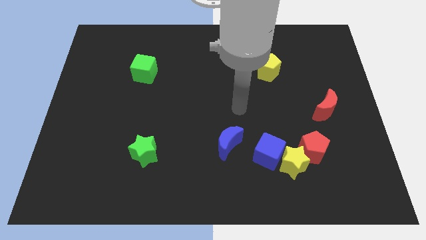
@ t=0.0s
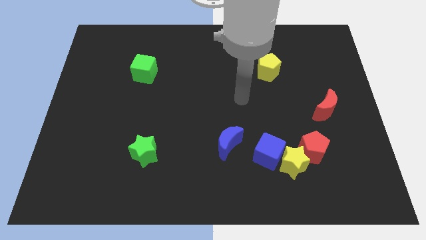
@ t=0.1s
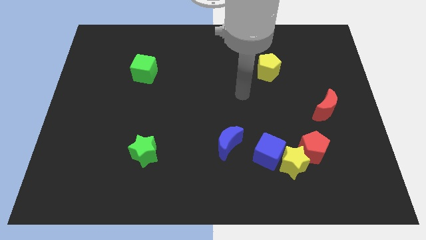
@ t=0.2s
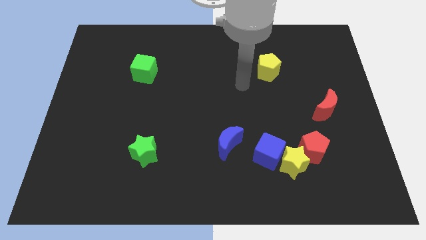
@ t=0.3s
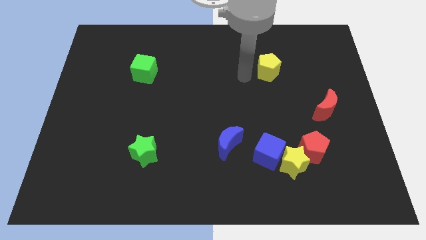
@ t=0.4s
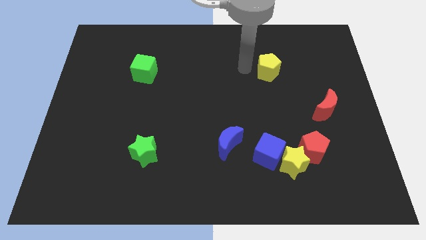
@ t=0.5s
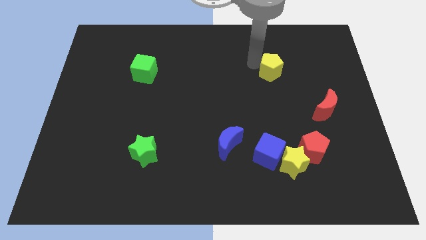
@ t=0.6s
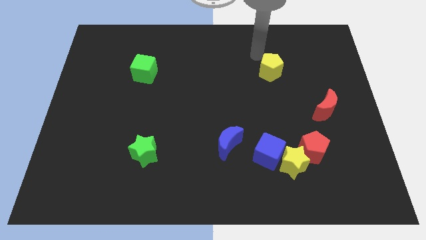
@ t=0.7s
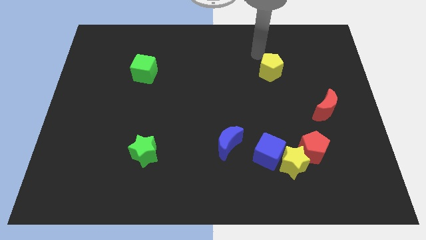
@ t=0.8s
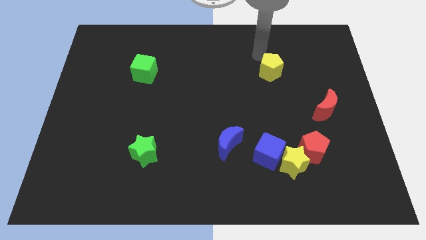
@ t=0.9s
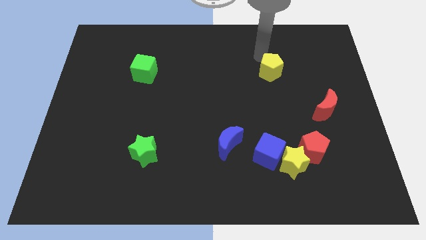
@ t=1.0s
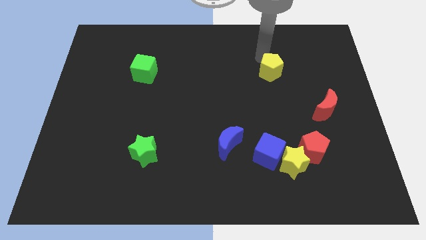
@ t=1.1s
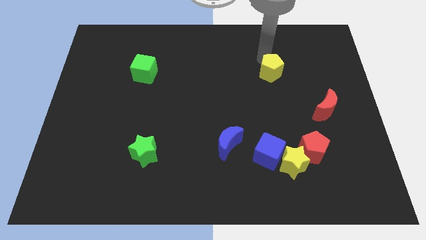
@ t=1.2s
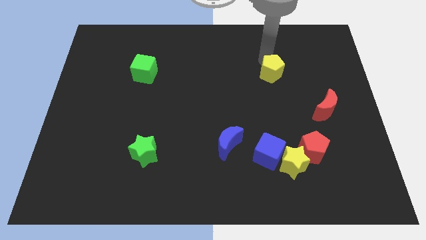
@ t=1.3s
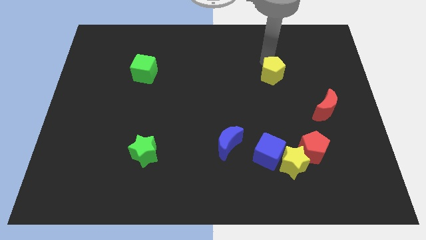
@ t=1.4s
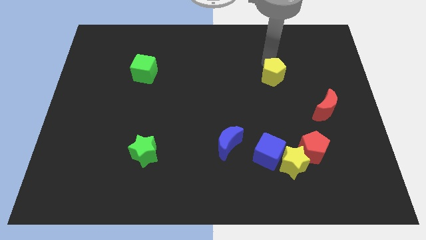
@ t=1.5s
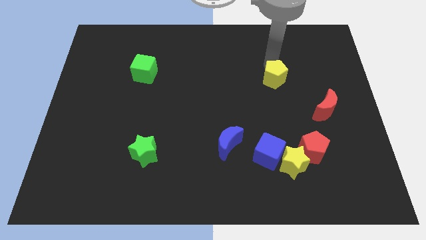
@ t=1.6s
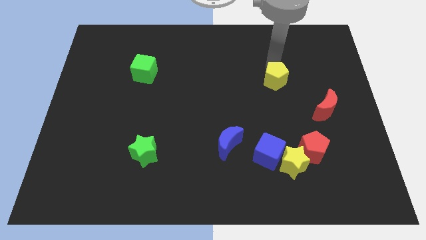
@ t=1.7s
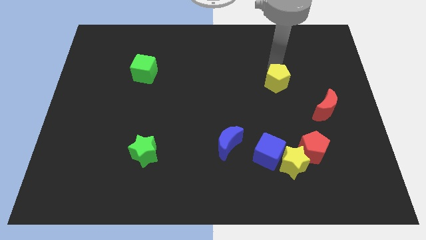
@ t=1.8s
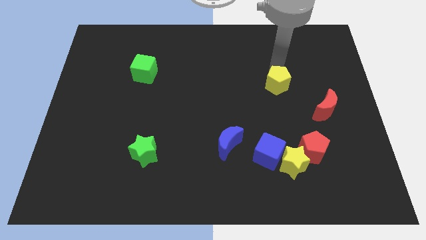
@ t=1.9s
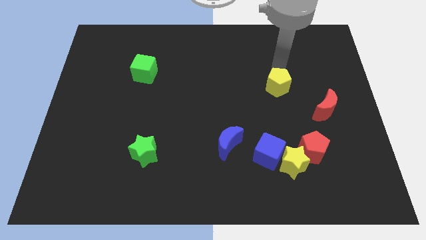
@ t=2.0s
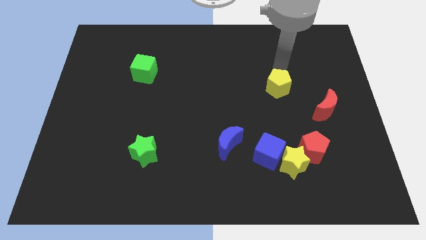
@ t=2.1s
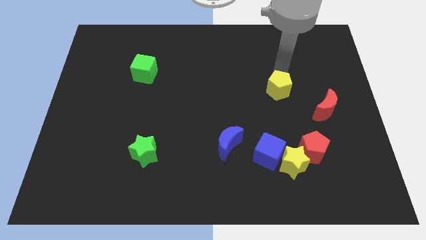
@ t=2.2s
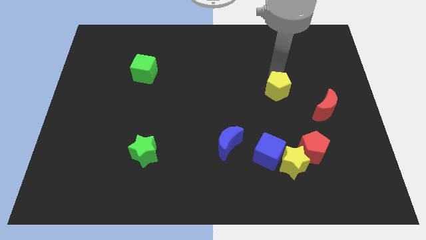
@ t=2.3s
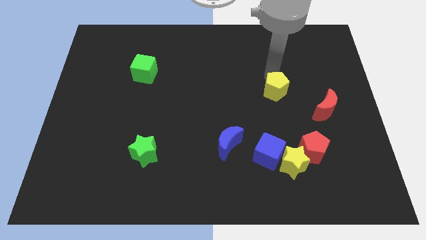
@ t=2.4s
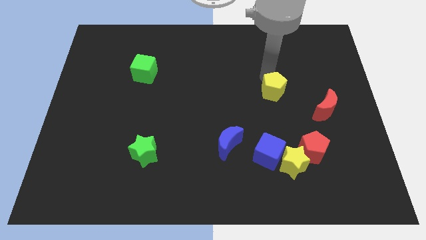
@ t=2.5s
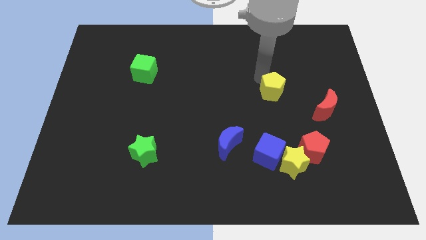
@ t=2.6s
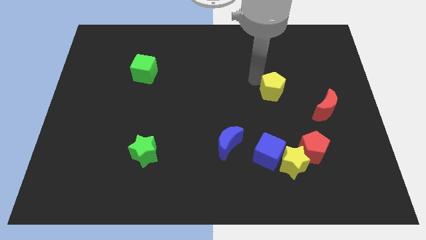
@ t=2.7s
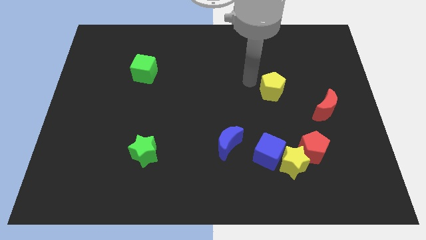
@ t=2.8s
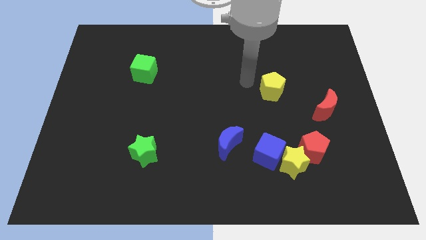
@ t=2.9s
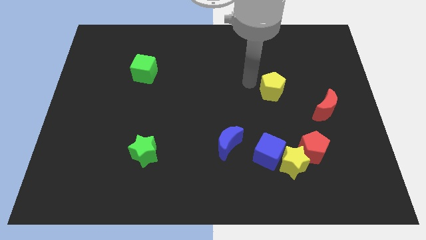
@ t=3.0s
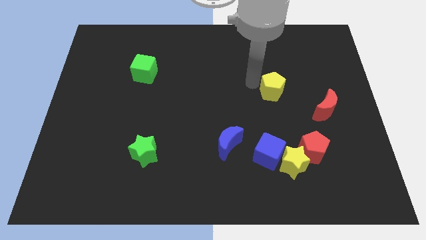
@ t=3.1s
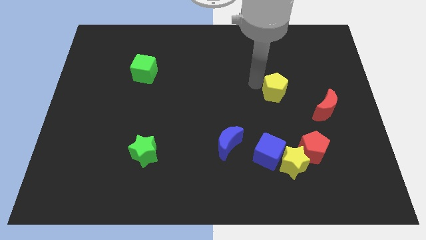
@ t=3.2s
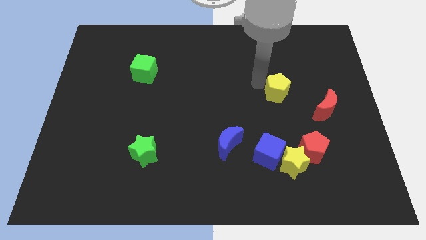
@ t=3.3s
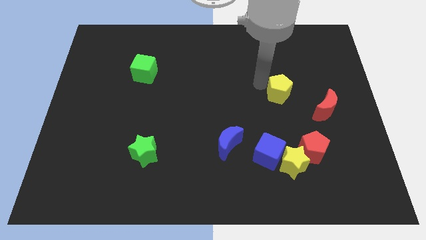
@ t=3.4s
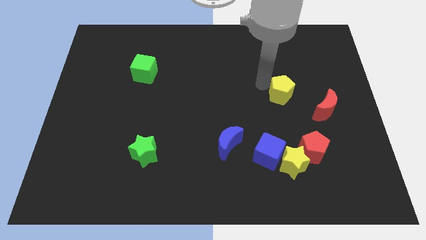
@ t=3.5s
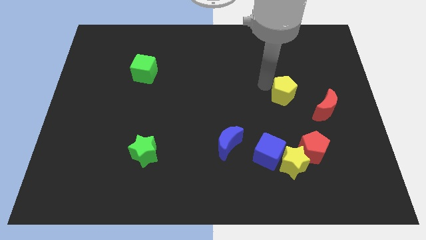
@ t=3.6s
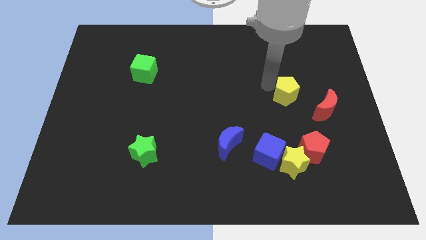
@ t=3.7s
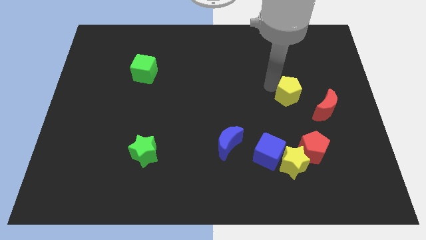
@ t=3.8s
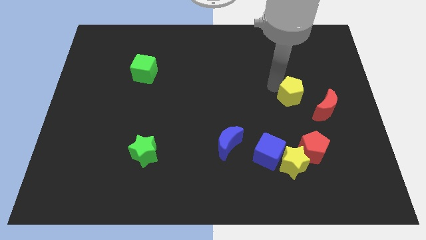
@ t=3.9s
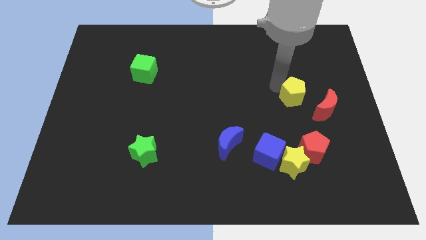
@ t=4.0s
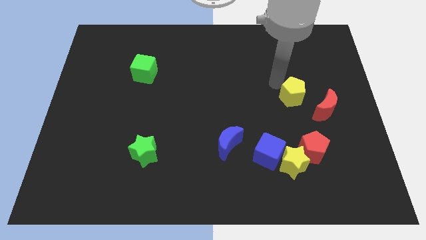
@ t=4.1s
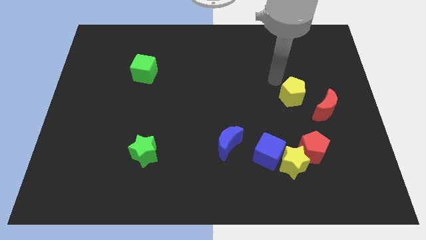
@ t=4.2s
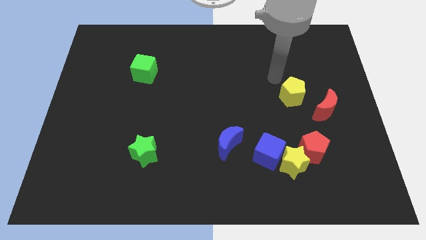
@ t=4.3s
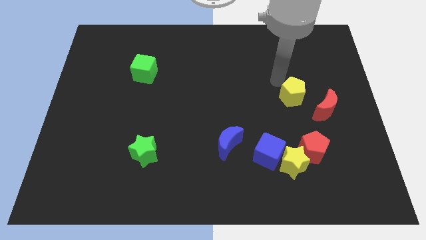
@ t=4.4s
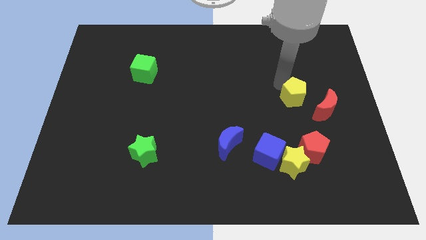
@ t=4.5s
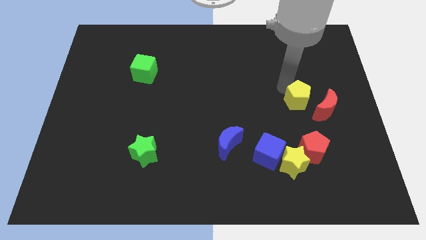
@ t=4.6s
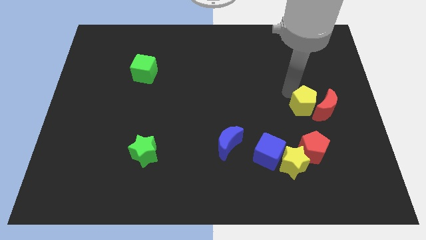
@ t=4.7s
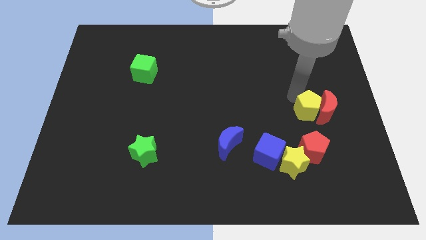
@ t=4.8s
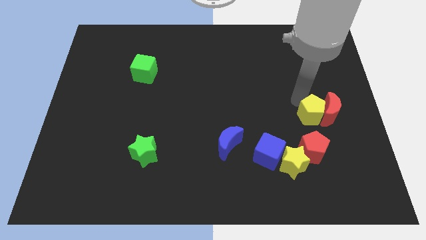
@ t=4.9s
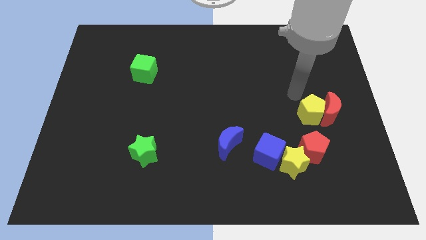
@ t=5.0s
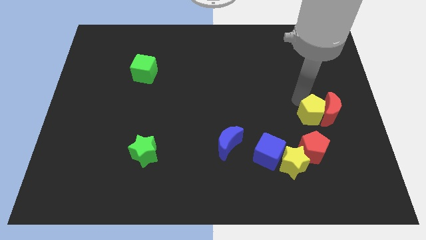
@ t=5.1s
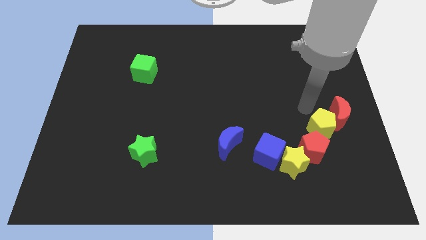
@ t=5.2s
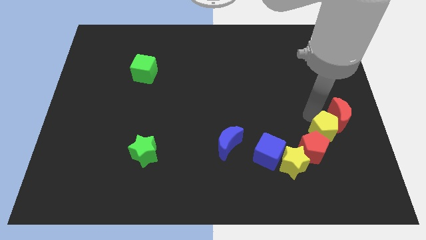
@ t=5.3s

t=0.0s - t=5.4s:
put the yellow pentagon below the red moon

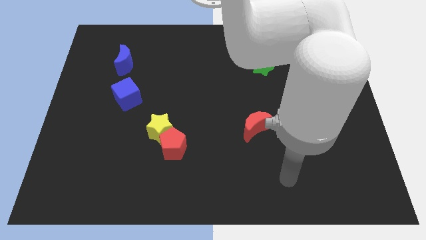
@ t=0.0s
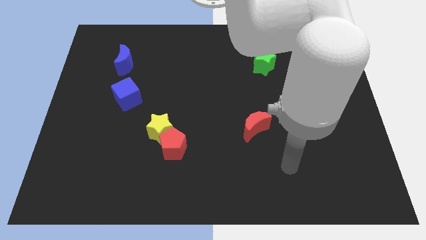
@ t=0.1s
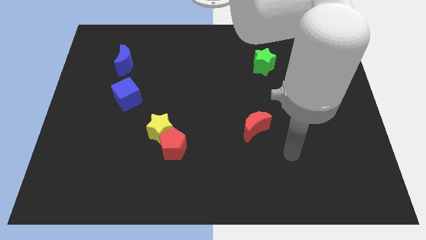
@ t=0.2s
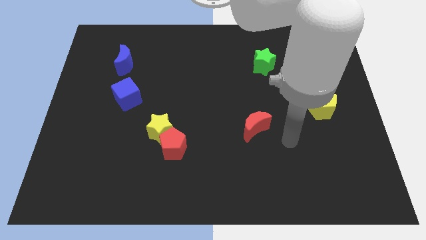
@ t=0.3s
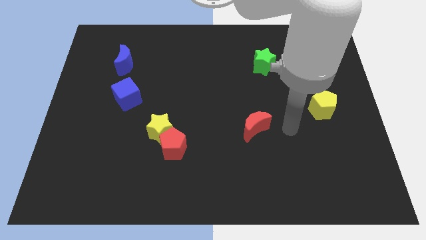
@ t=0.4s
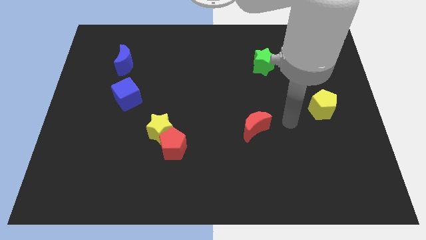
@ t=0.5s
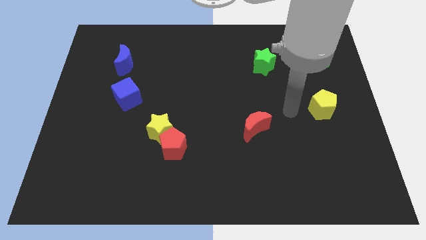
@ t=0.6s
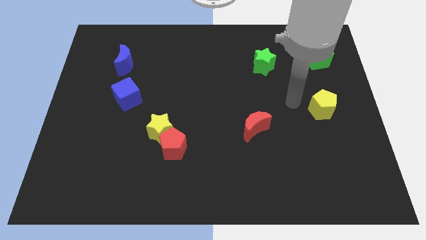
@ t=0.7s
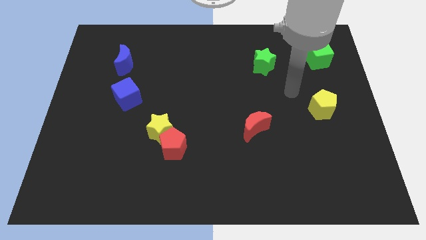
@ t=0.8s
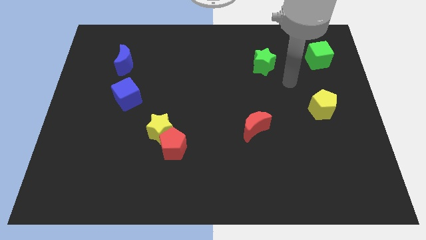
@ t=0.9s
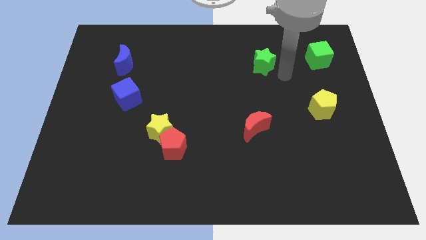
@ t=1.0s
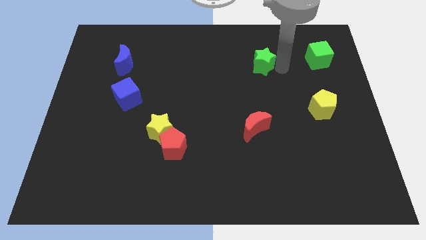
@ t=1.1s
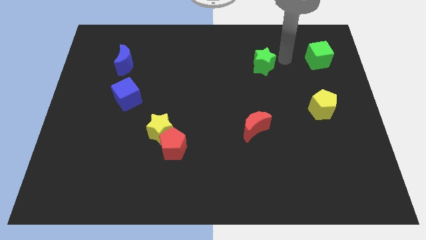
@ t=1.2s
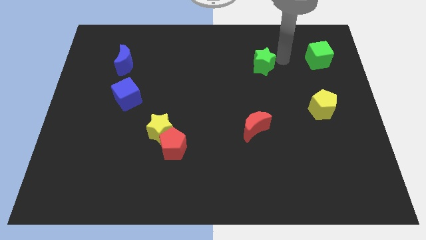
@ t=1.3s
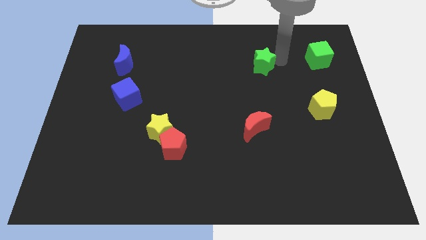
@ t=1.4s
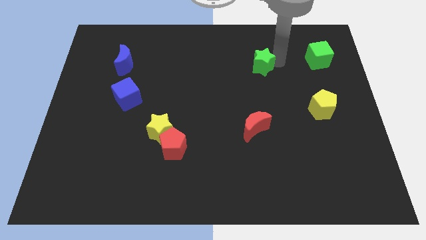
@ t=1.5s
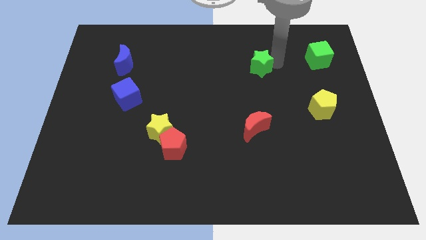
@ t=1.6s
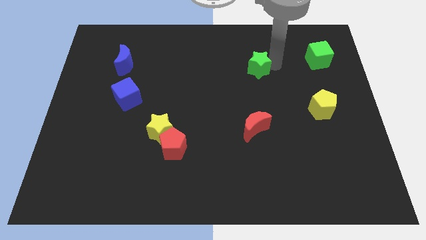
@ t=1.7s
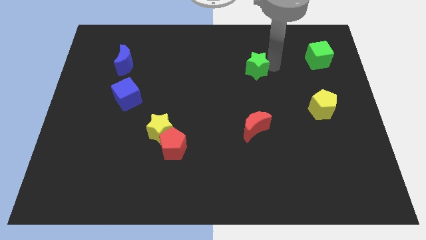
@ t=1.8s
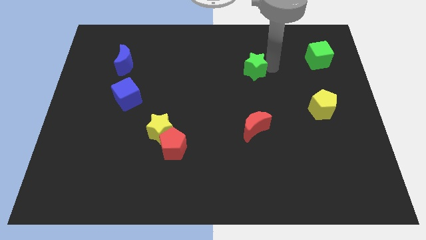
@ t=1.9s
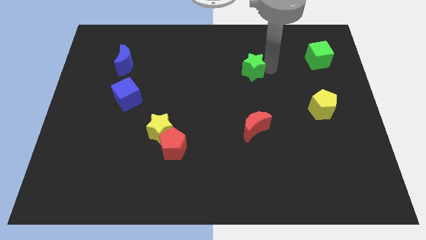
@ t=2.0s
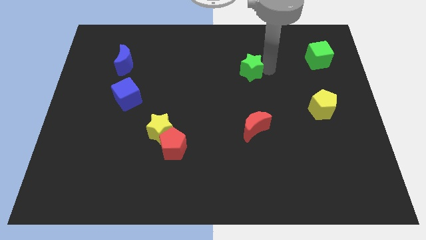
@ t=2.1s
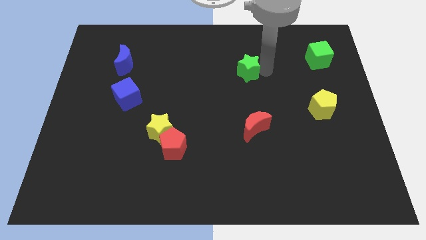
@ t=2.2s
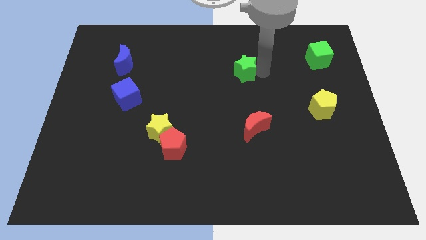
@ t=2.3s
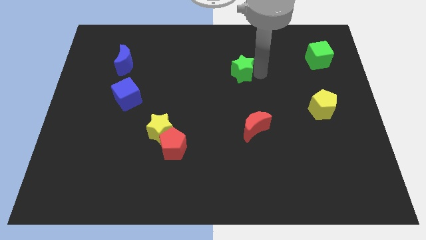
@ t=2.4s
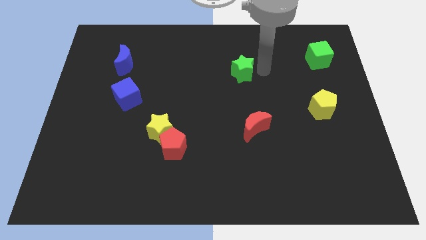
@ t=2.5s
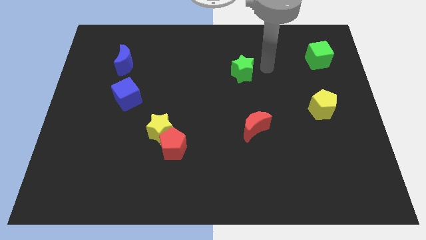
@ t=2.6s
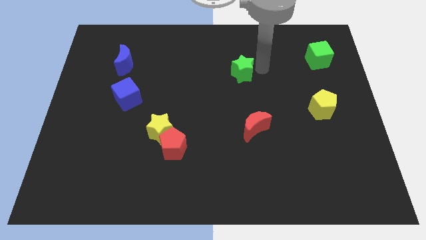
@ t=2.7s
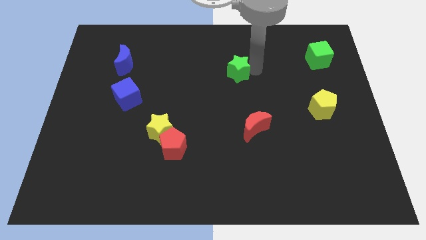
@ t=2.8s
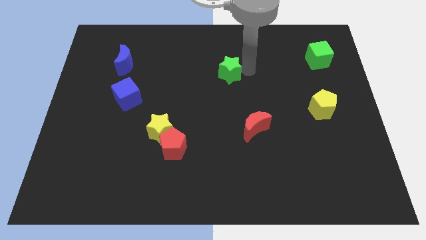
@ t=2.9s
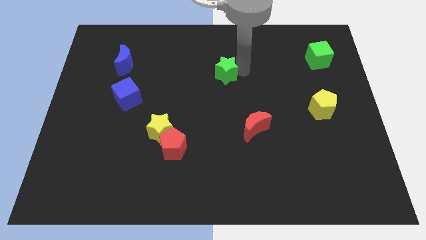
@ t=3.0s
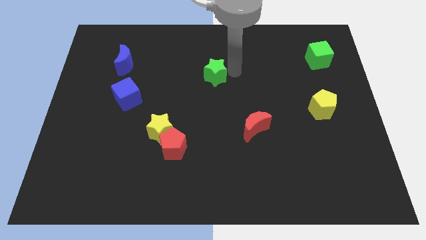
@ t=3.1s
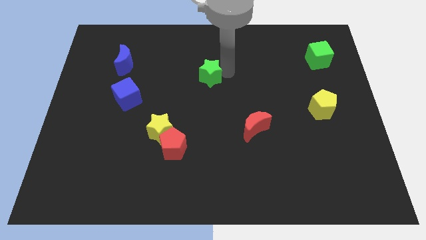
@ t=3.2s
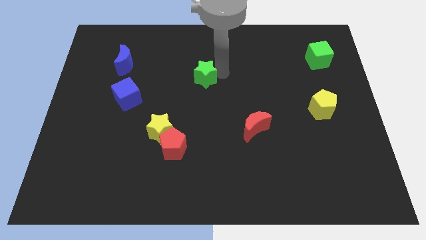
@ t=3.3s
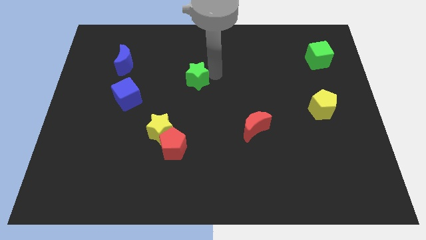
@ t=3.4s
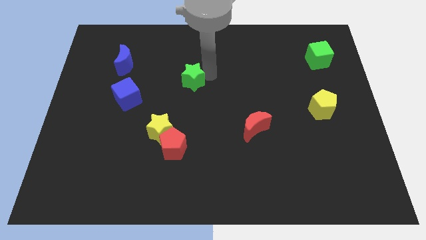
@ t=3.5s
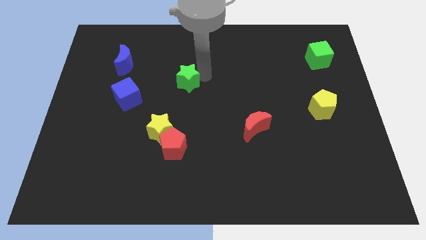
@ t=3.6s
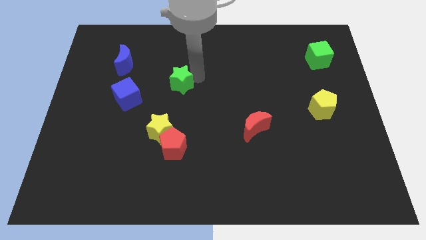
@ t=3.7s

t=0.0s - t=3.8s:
slide the green star to the top side of the yellow star
